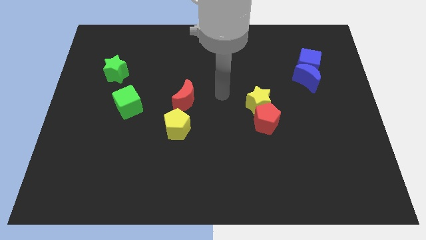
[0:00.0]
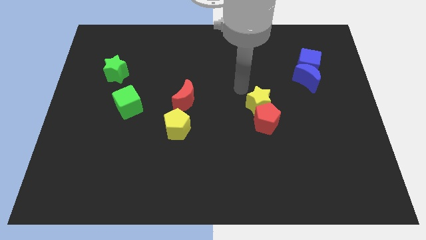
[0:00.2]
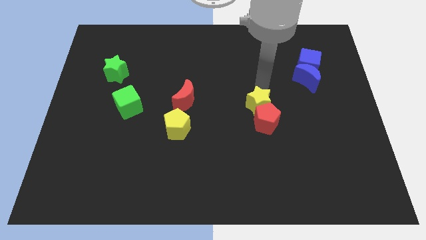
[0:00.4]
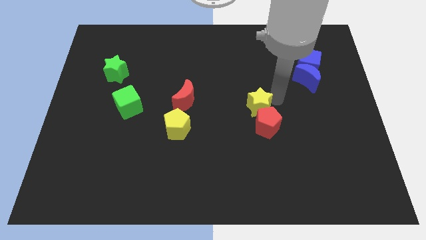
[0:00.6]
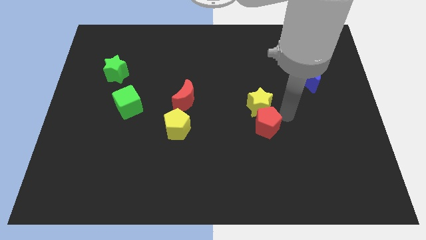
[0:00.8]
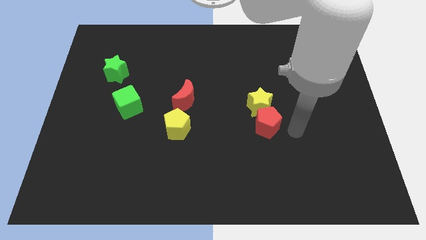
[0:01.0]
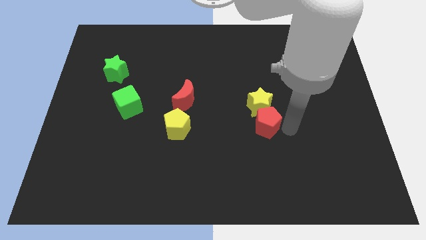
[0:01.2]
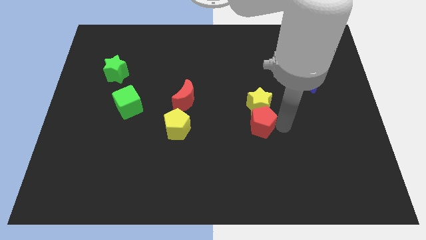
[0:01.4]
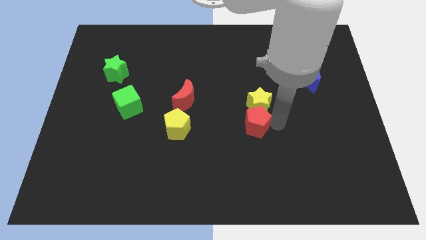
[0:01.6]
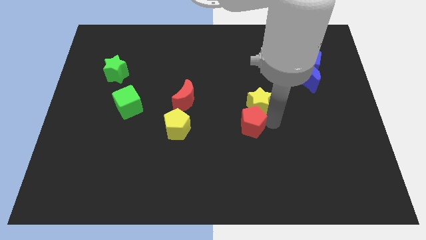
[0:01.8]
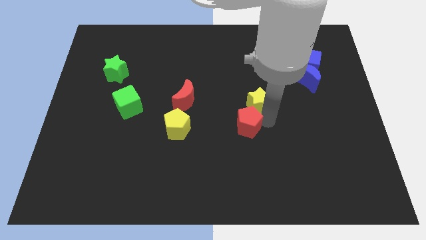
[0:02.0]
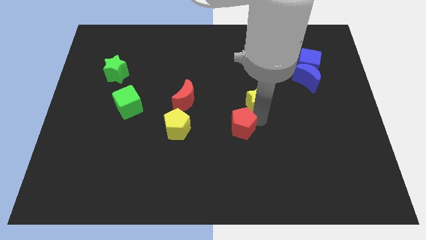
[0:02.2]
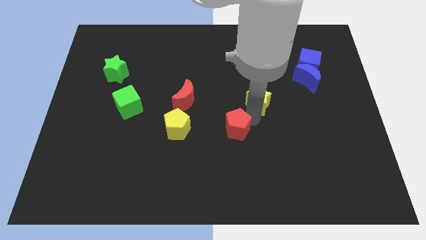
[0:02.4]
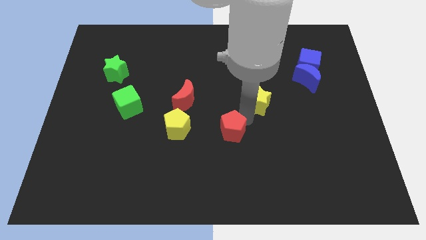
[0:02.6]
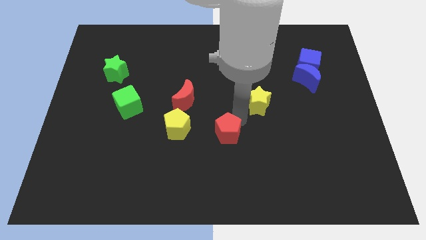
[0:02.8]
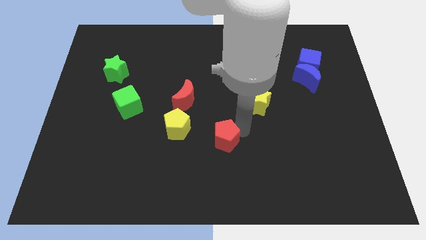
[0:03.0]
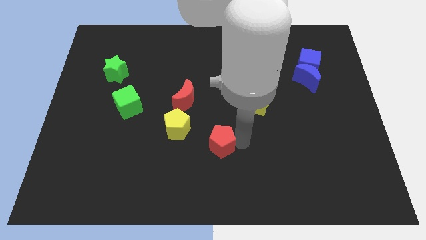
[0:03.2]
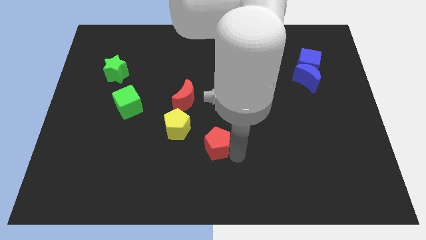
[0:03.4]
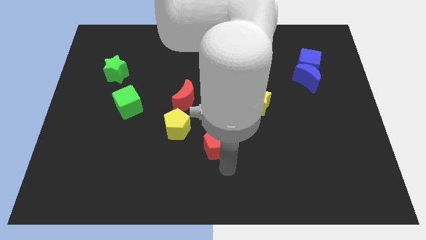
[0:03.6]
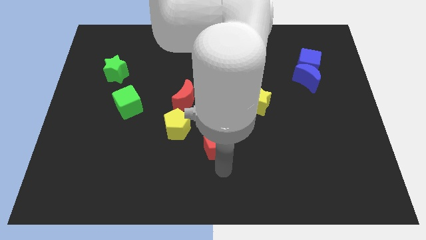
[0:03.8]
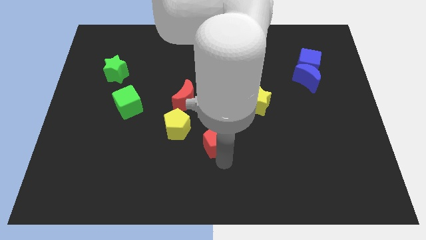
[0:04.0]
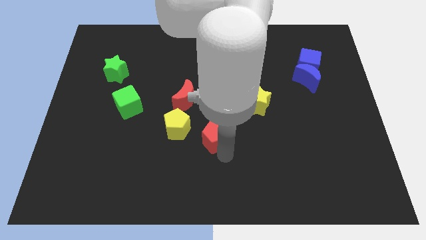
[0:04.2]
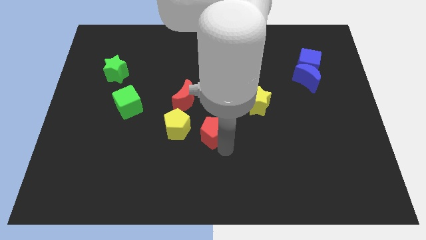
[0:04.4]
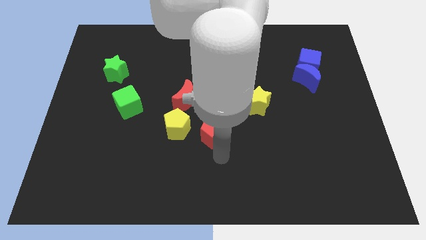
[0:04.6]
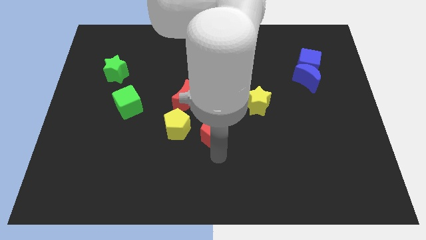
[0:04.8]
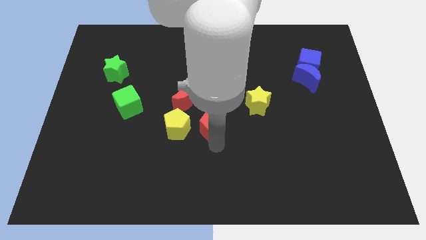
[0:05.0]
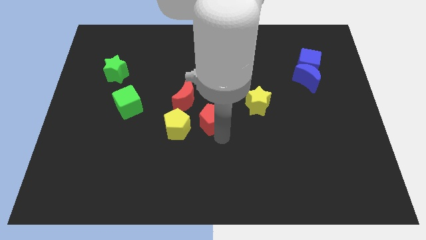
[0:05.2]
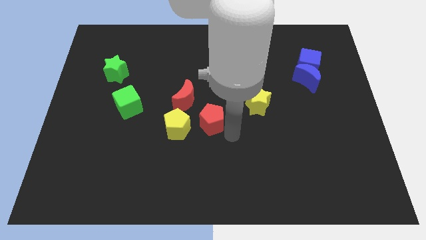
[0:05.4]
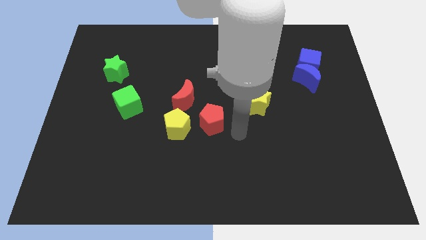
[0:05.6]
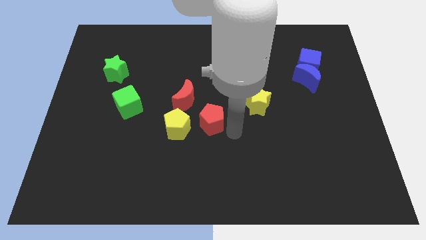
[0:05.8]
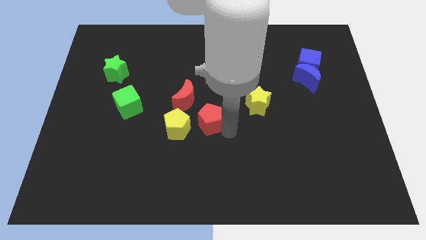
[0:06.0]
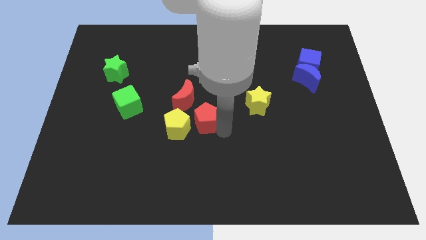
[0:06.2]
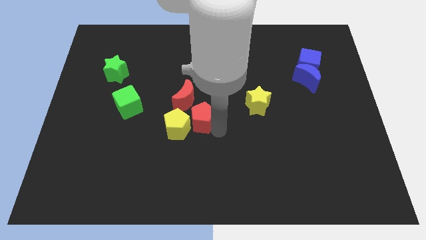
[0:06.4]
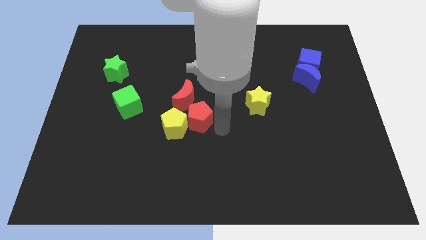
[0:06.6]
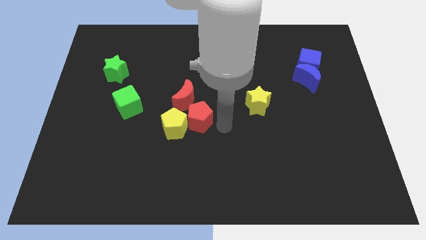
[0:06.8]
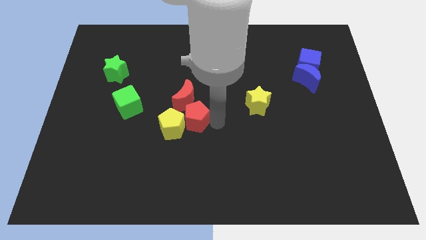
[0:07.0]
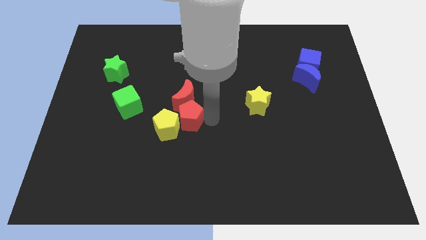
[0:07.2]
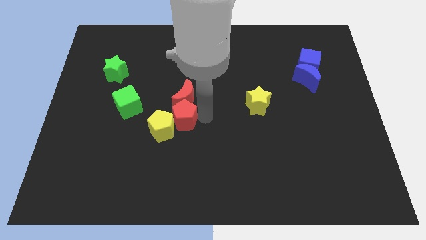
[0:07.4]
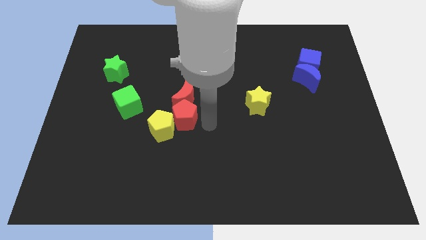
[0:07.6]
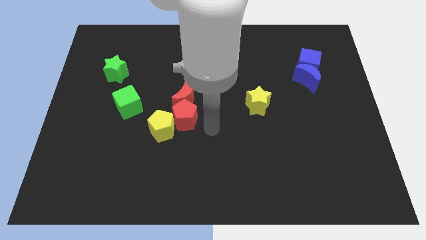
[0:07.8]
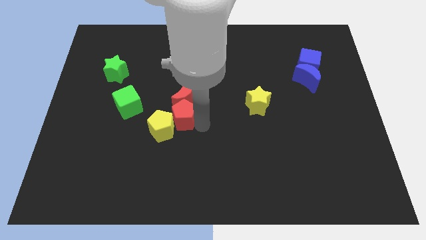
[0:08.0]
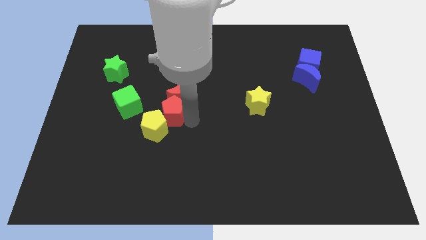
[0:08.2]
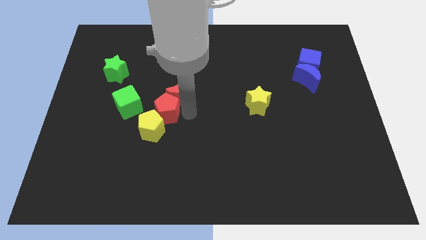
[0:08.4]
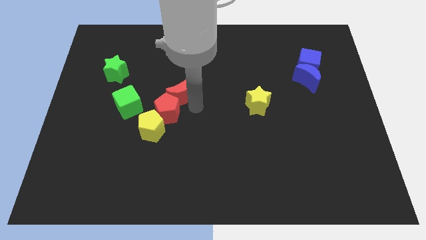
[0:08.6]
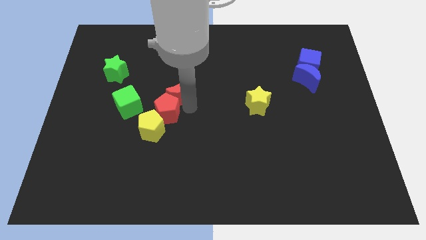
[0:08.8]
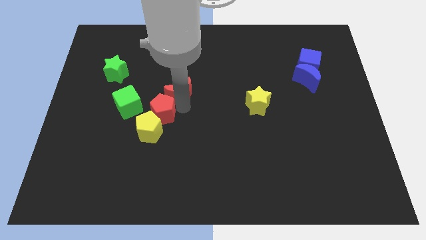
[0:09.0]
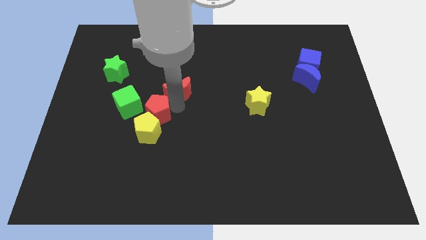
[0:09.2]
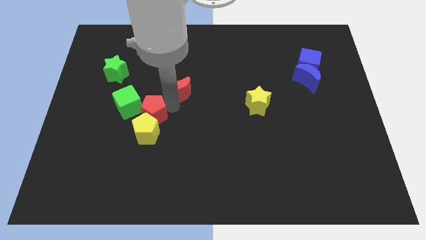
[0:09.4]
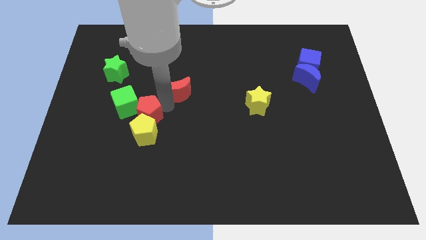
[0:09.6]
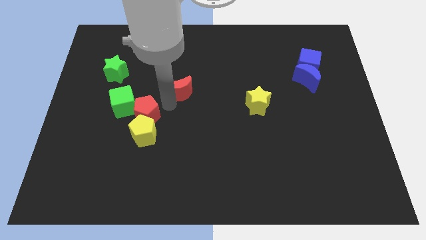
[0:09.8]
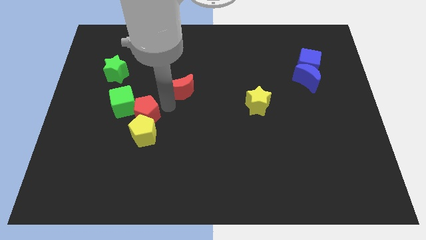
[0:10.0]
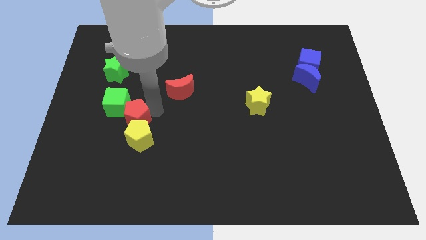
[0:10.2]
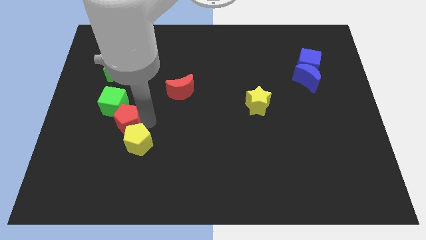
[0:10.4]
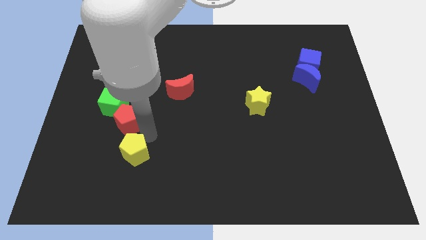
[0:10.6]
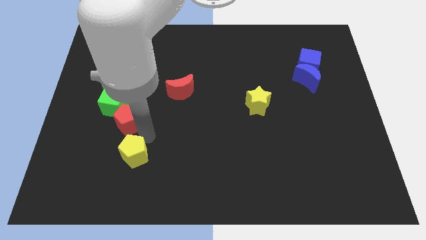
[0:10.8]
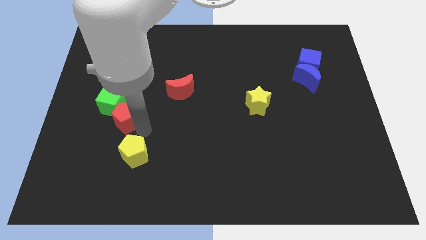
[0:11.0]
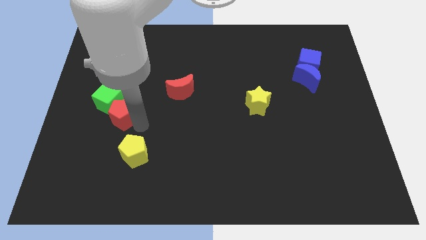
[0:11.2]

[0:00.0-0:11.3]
move the red pentagon below the green star

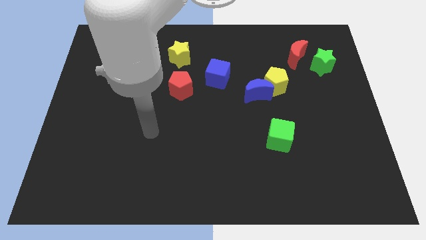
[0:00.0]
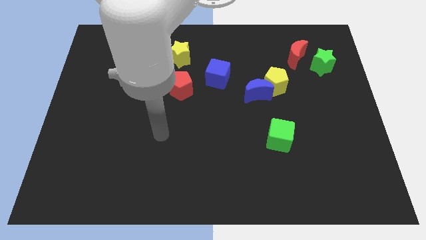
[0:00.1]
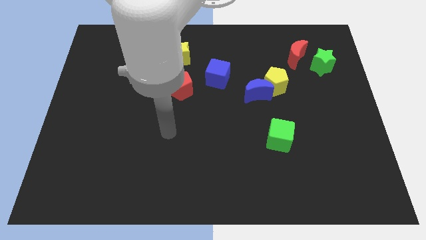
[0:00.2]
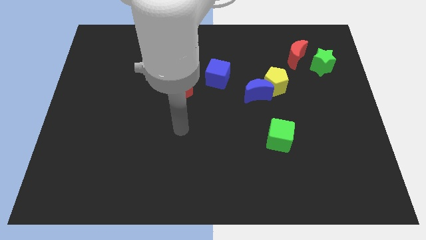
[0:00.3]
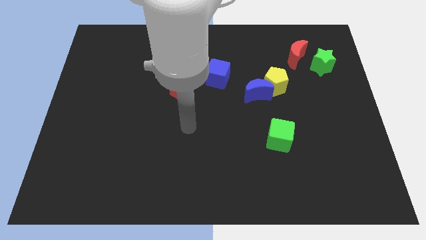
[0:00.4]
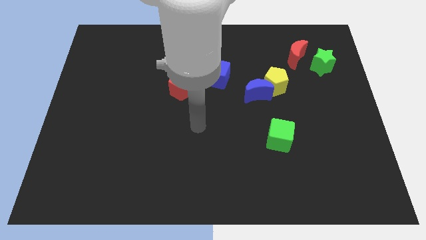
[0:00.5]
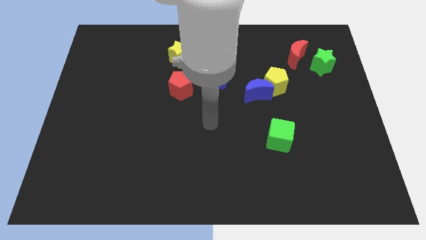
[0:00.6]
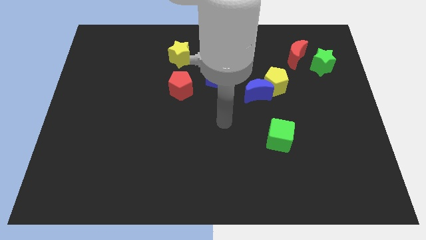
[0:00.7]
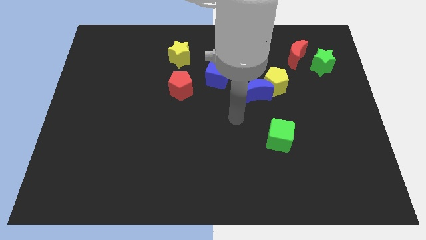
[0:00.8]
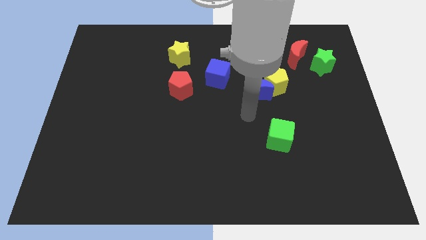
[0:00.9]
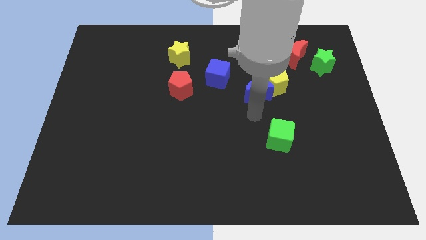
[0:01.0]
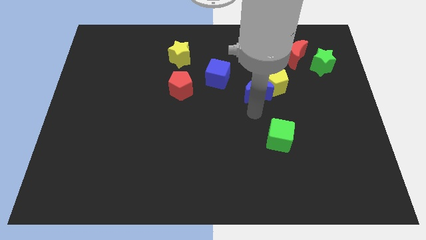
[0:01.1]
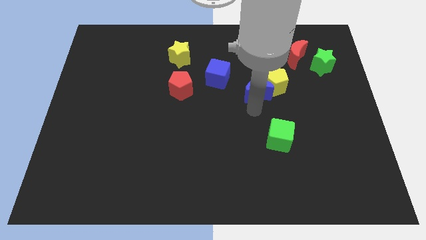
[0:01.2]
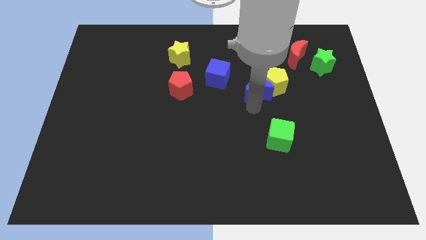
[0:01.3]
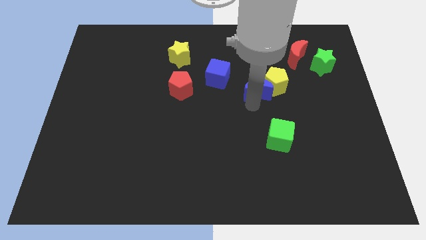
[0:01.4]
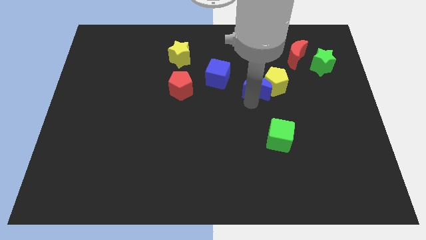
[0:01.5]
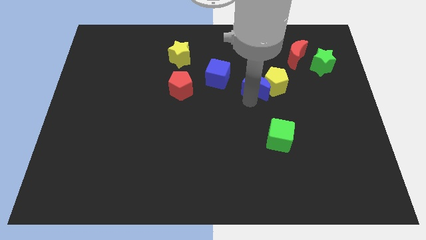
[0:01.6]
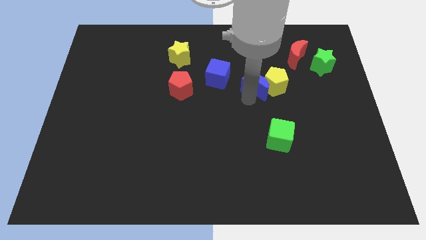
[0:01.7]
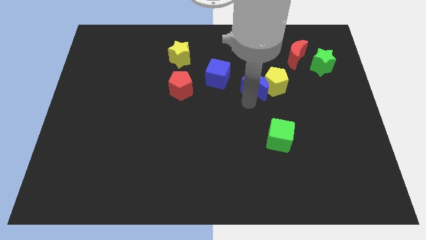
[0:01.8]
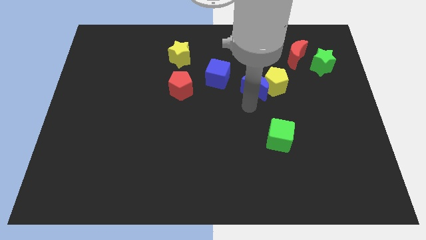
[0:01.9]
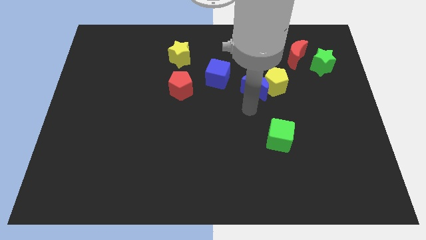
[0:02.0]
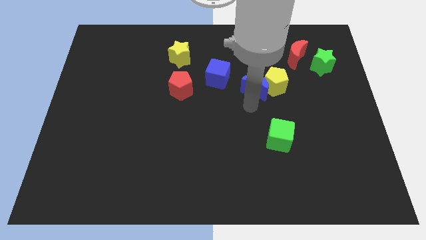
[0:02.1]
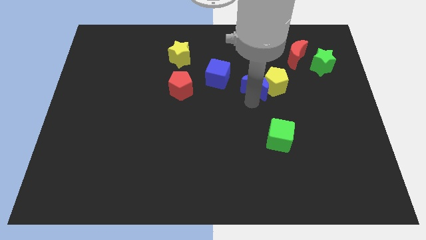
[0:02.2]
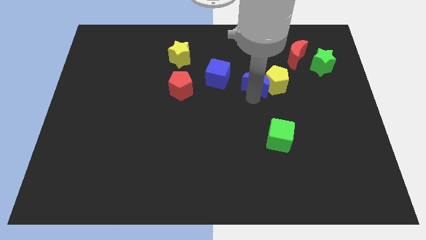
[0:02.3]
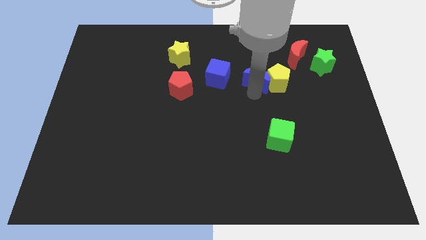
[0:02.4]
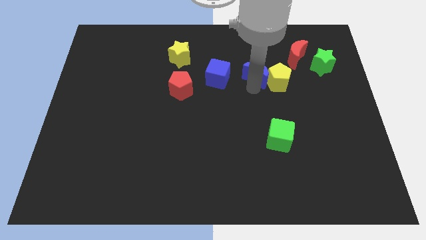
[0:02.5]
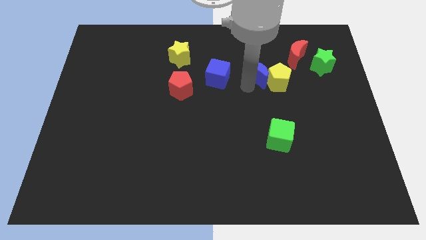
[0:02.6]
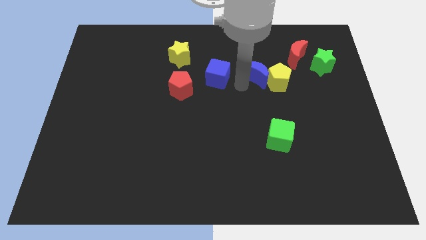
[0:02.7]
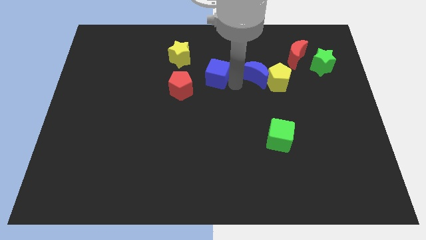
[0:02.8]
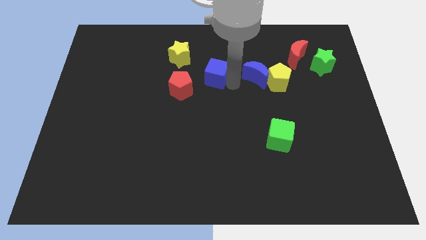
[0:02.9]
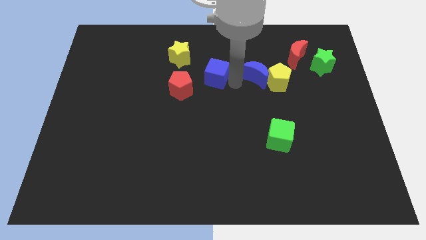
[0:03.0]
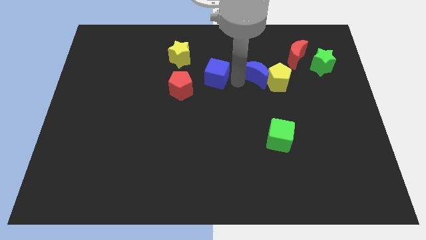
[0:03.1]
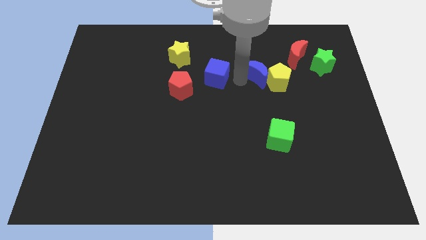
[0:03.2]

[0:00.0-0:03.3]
push the blue moon diagonally down and to the left of the red moon
